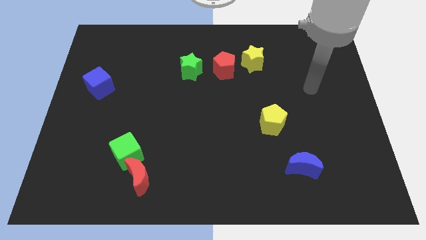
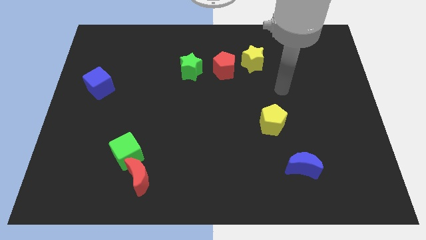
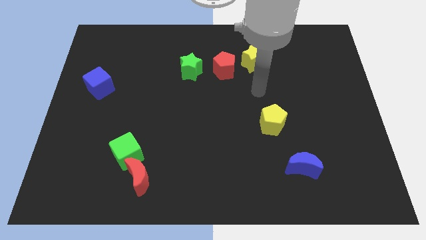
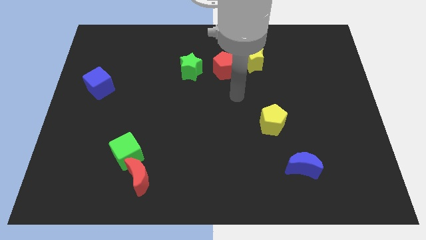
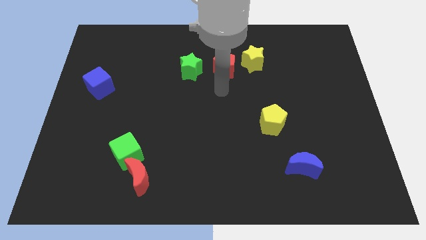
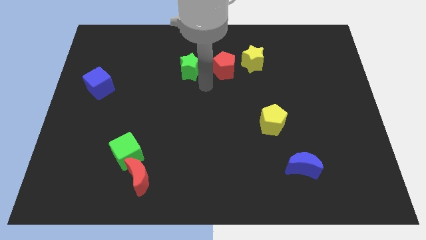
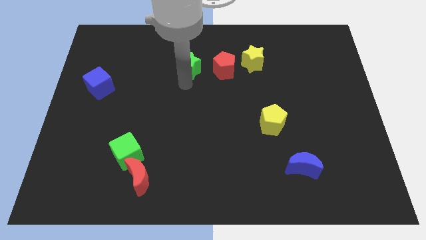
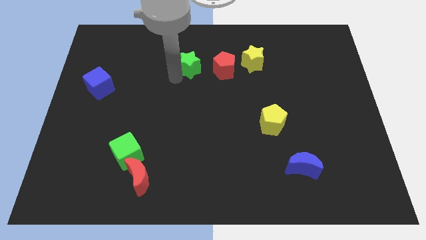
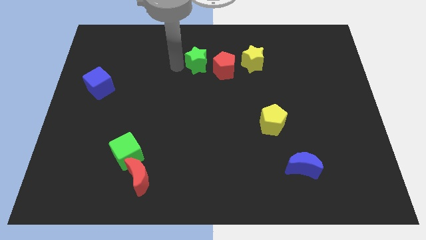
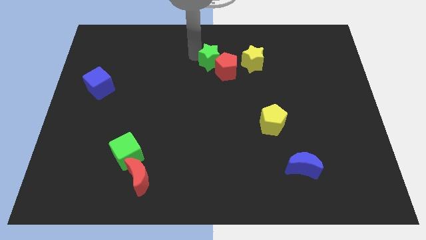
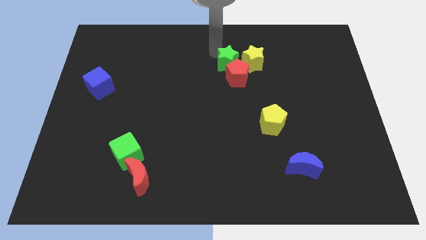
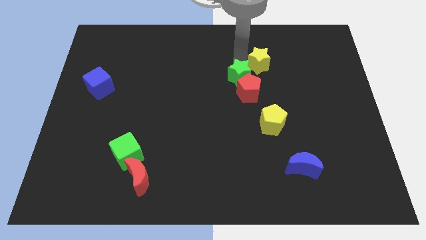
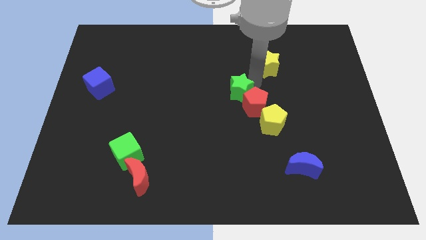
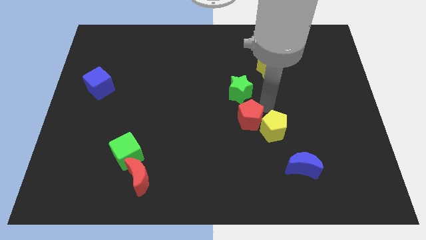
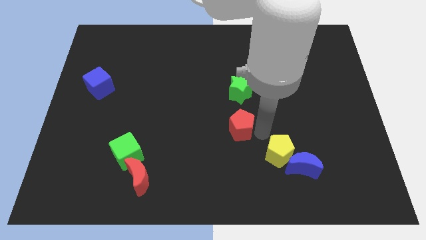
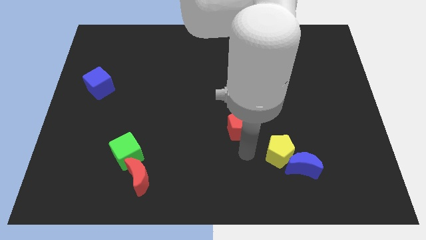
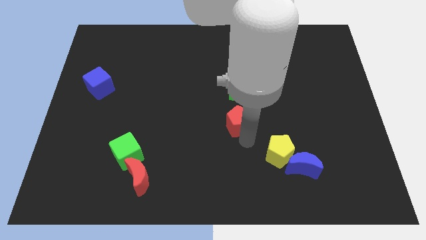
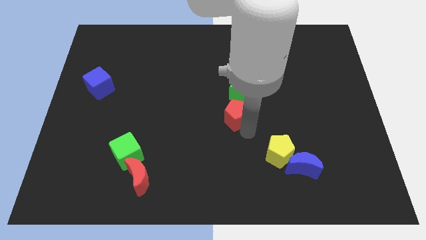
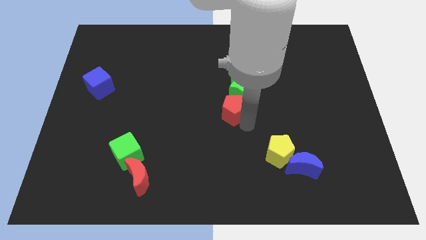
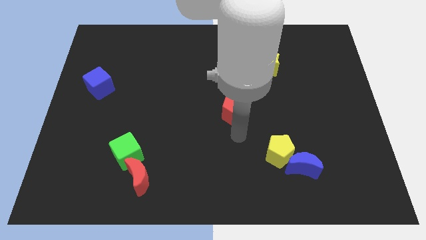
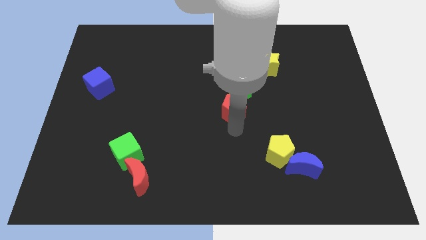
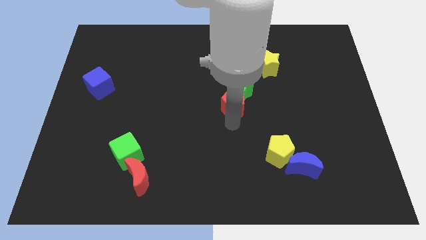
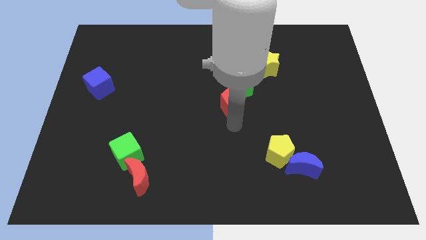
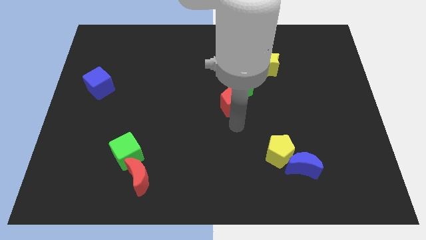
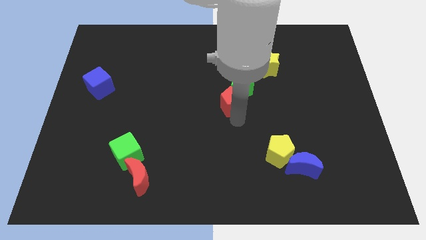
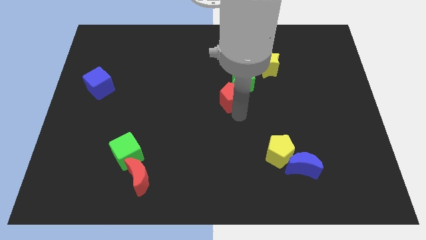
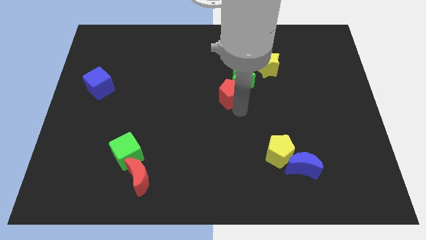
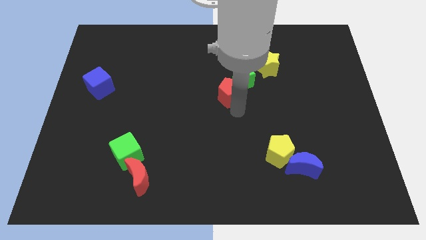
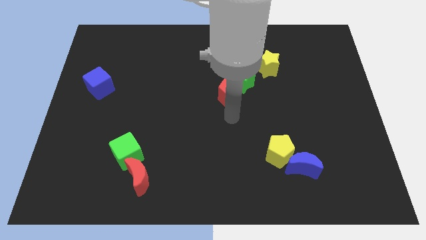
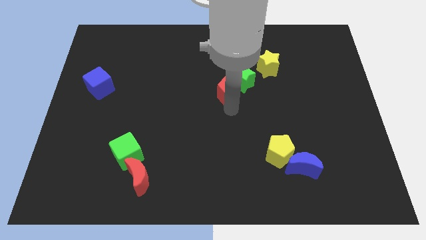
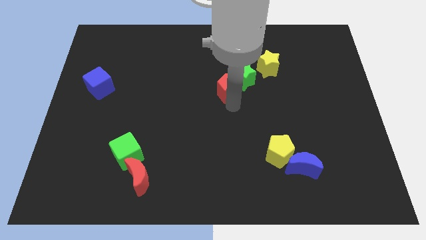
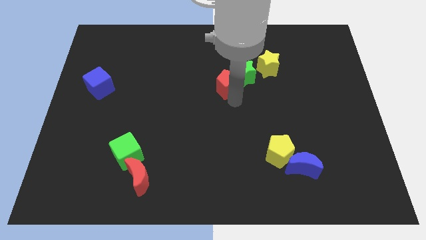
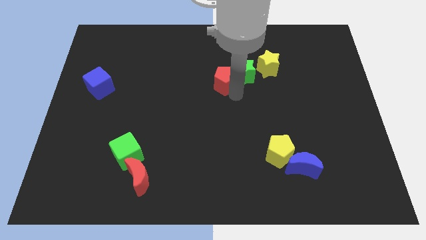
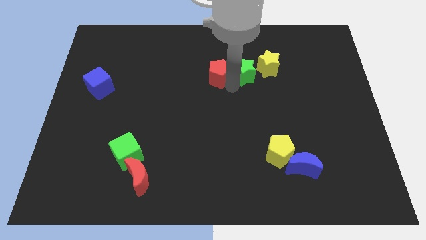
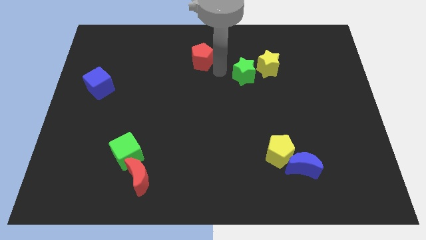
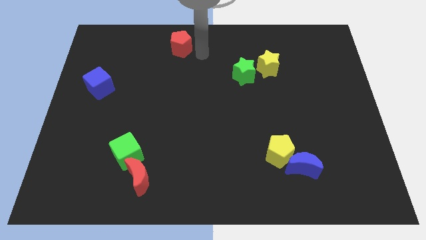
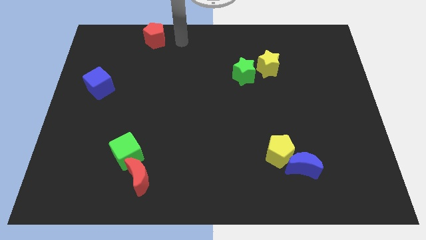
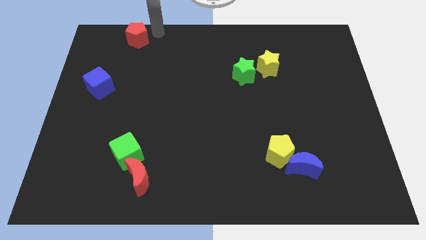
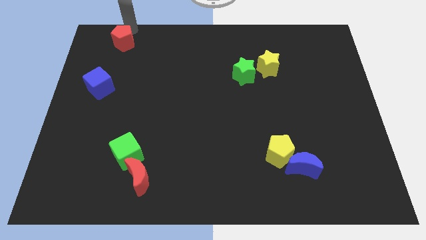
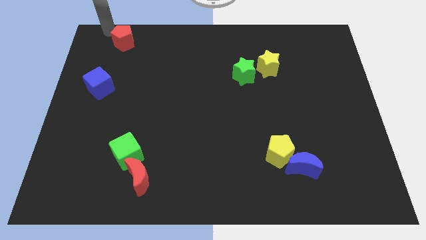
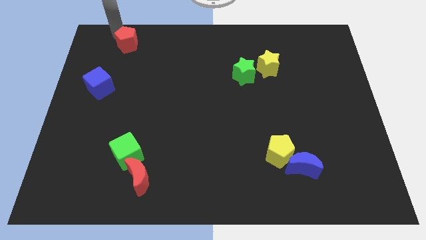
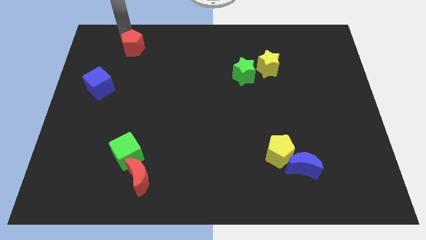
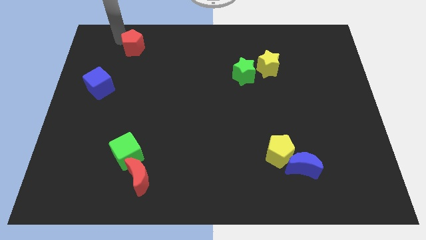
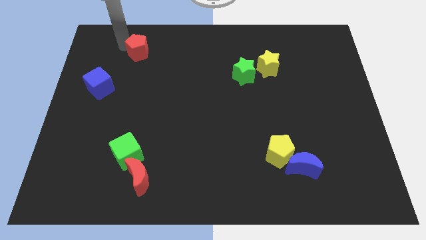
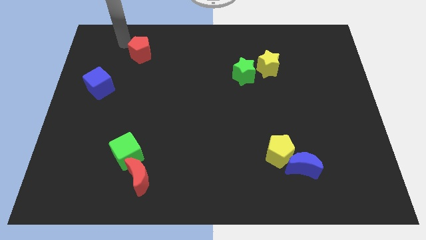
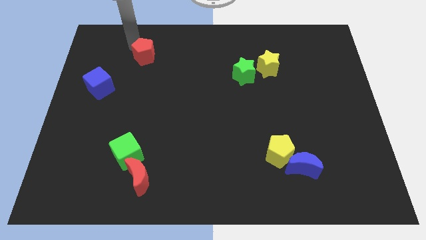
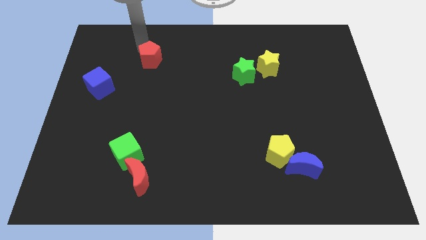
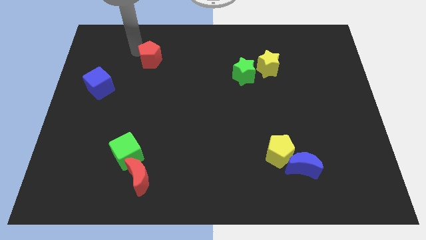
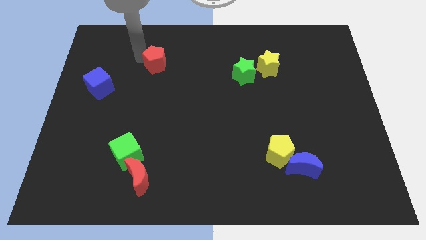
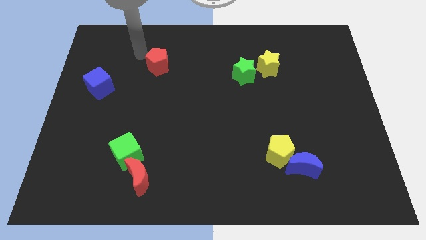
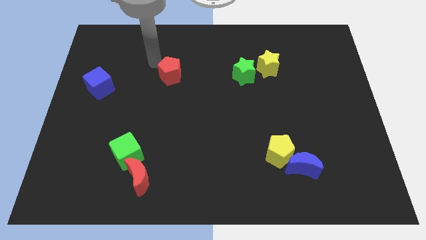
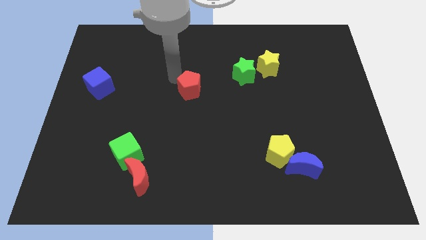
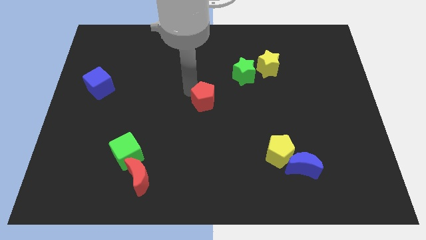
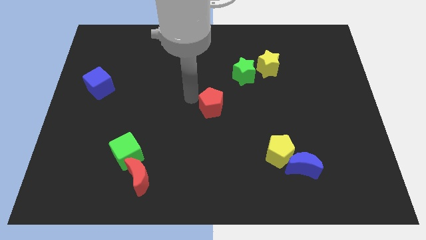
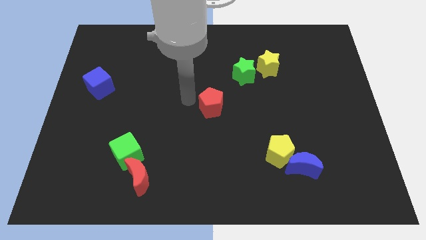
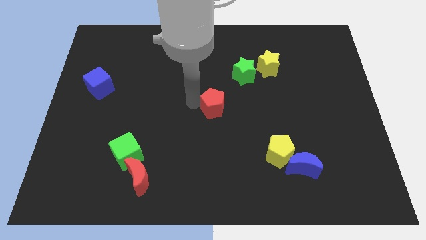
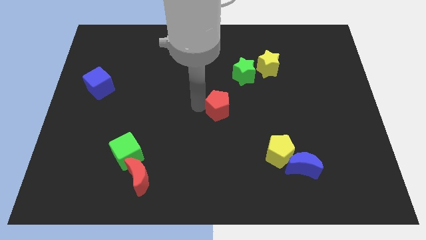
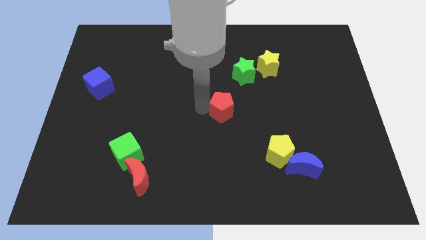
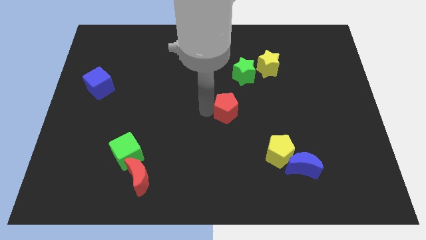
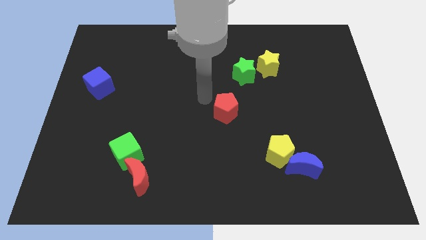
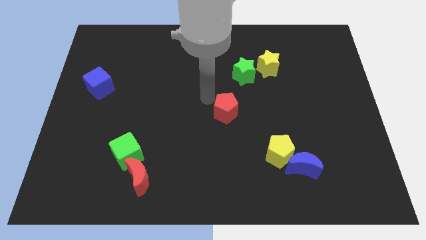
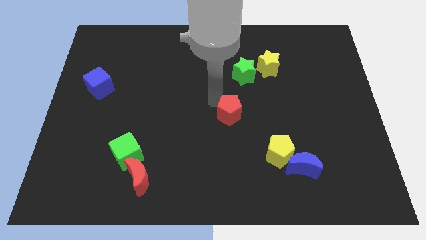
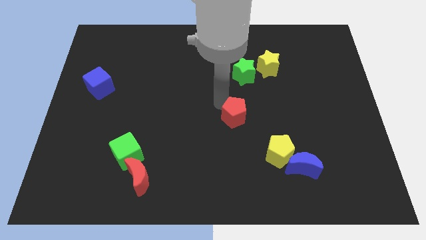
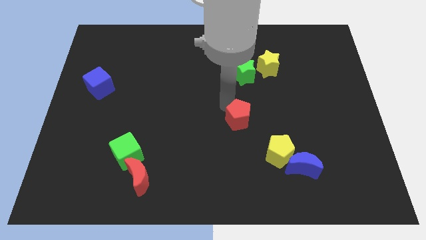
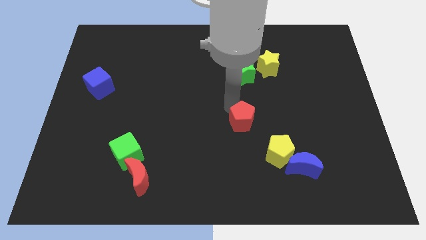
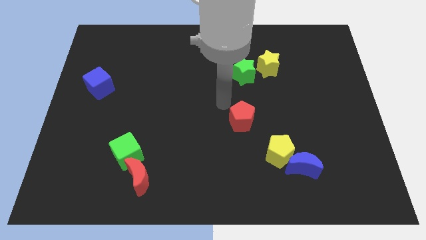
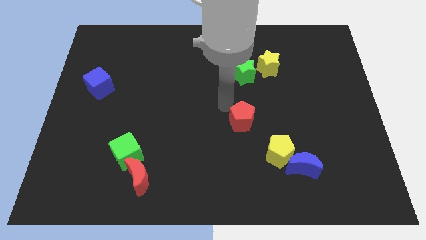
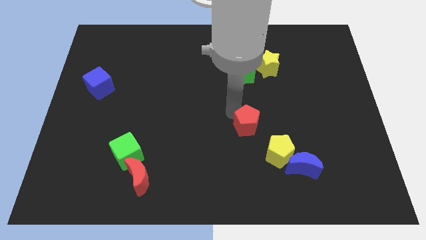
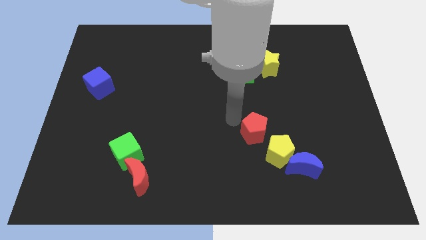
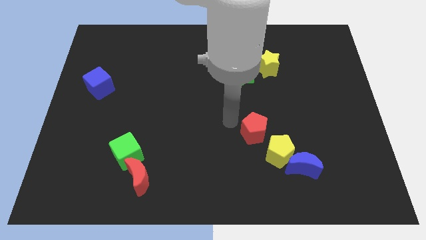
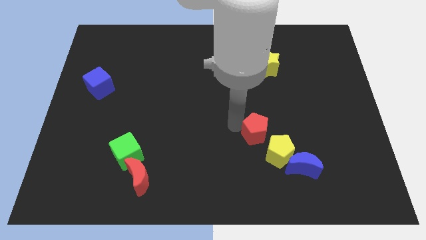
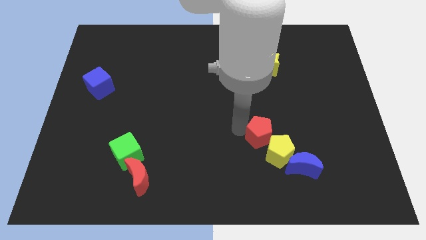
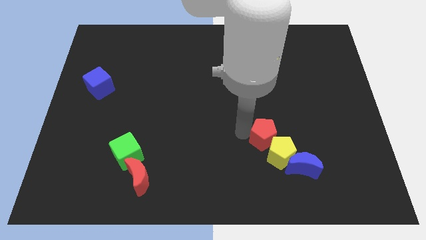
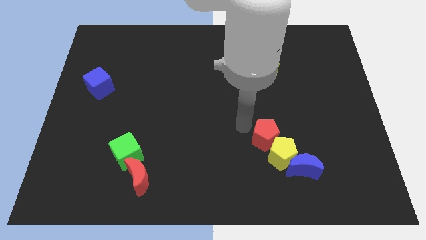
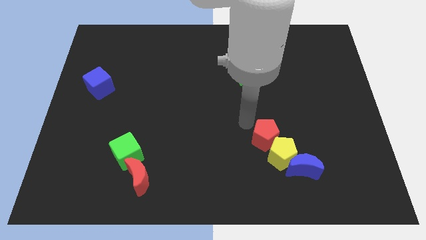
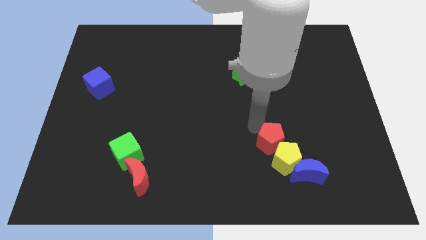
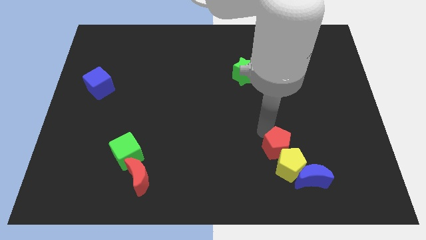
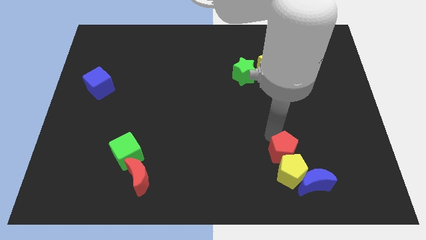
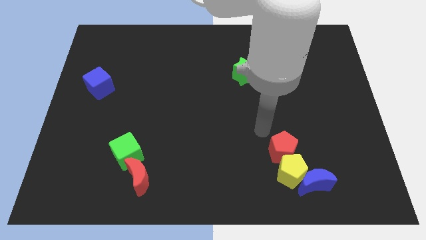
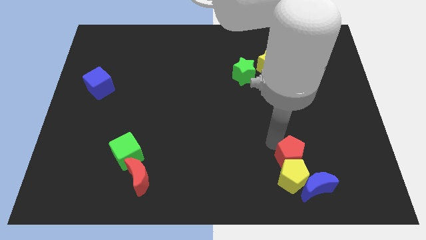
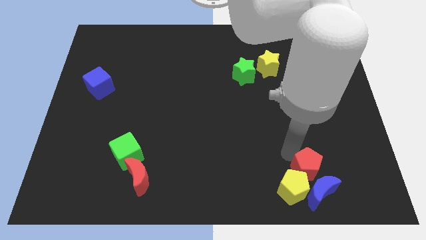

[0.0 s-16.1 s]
put the red pentagon to the blue moon

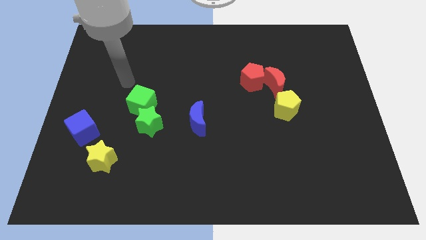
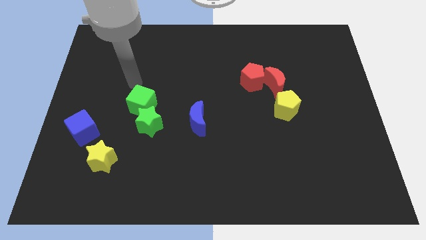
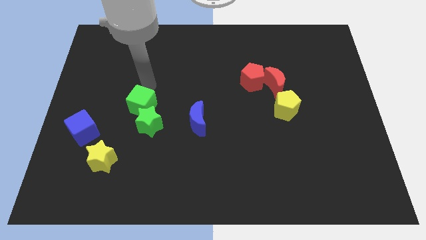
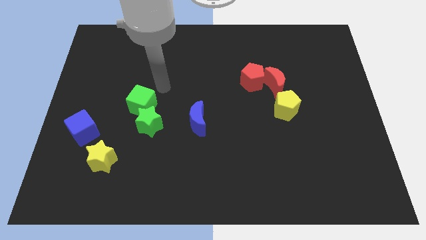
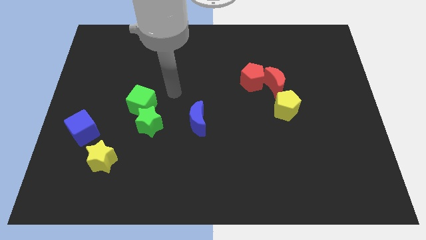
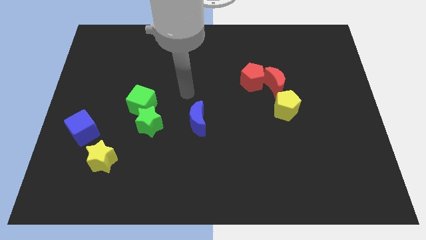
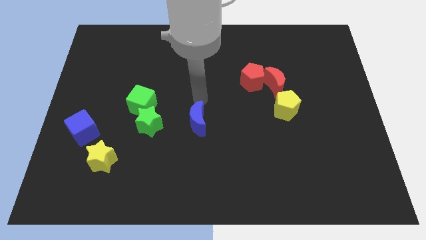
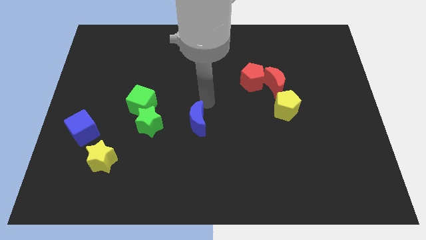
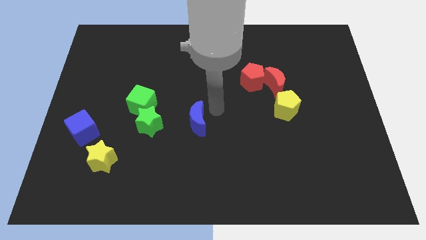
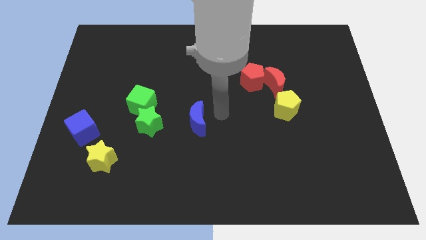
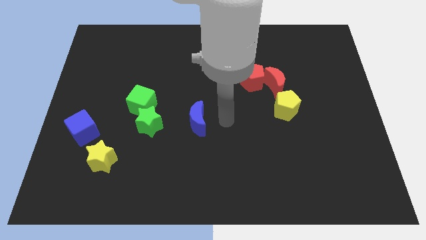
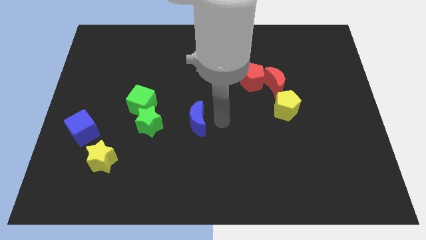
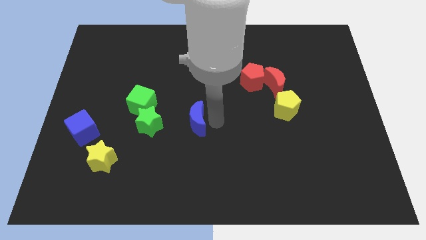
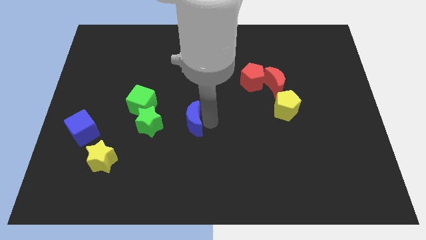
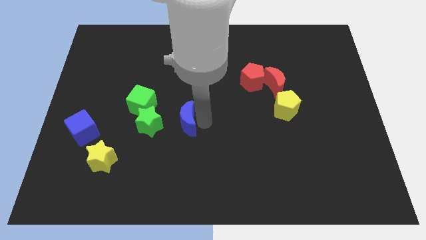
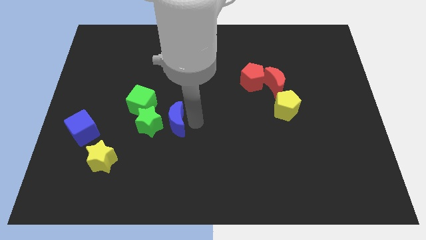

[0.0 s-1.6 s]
slide the blue moon close to the green star
